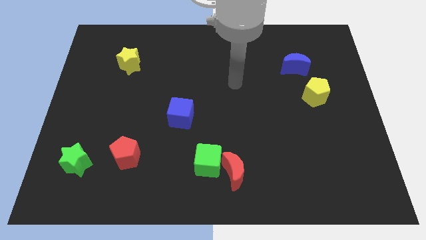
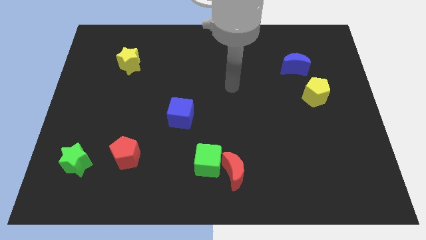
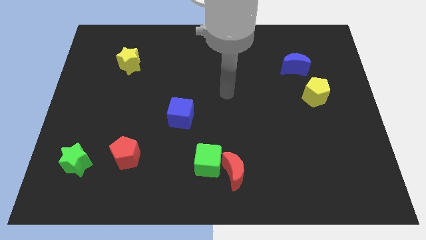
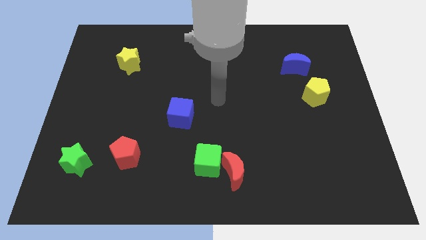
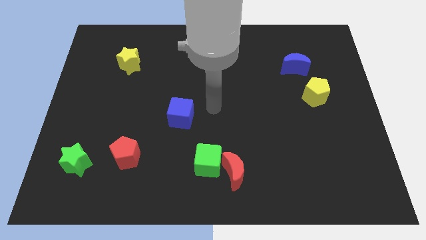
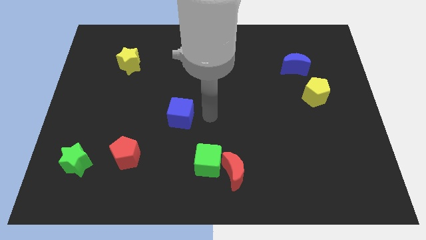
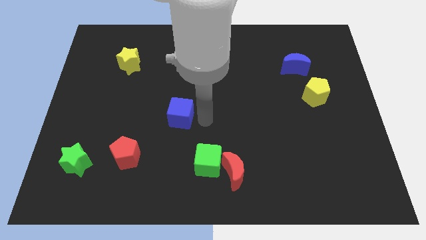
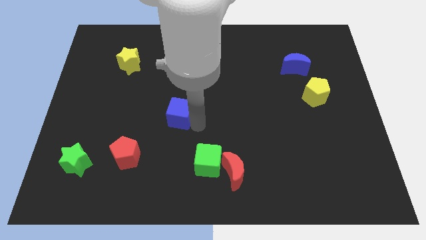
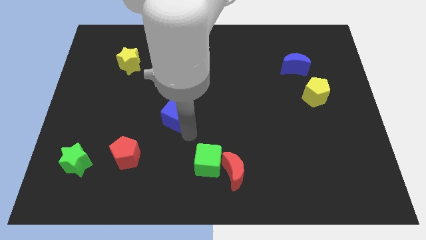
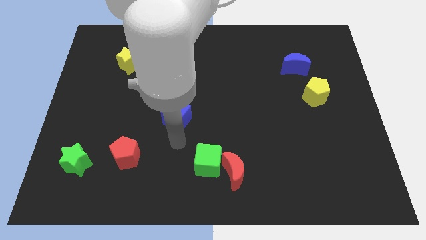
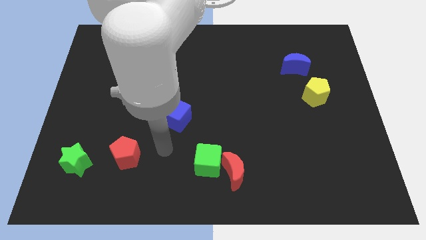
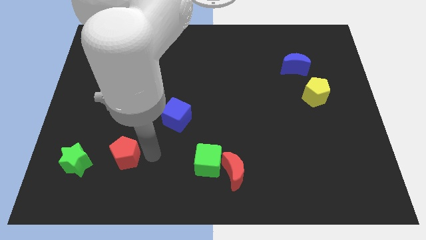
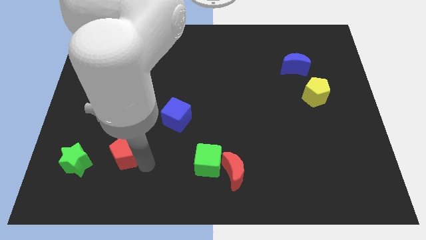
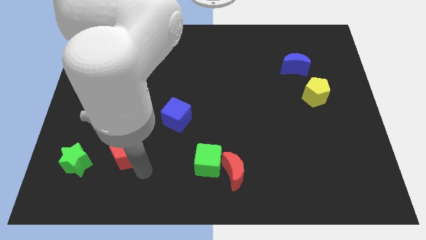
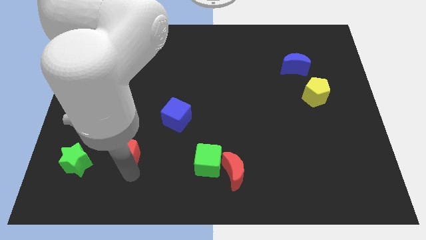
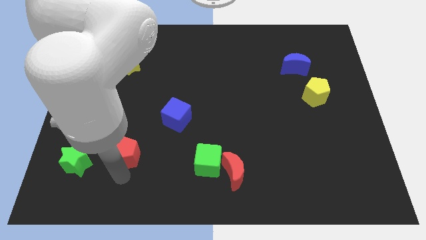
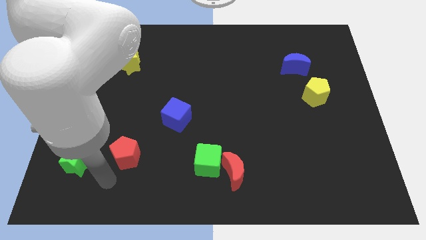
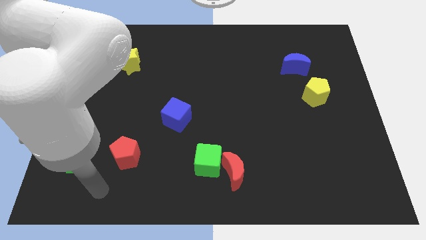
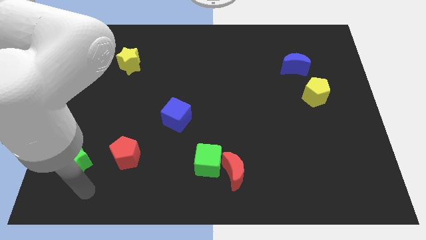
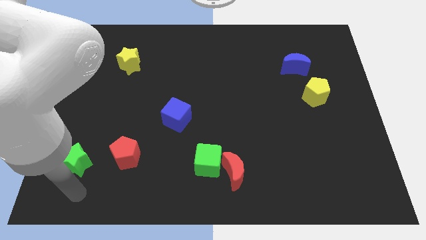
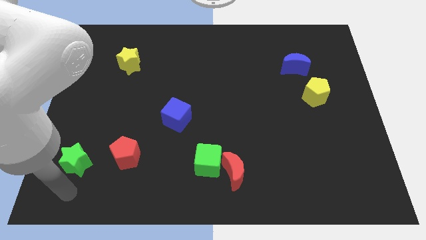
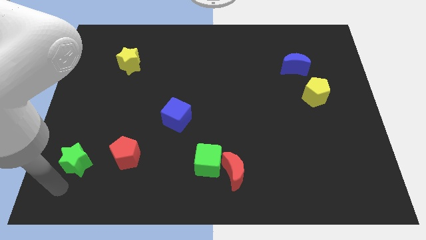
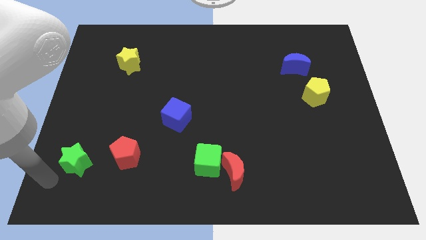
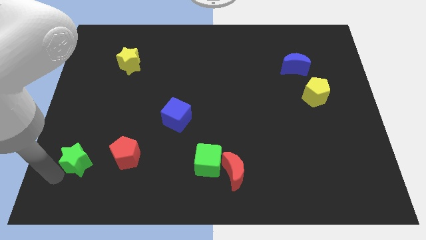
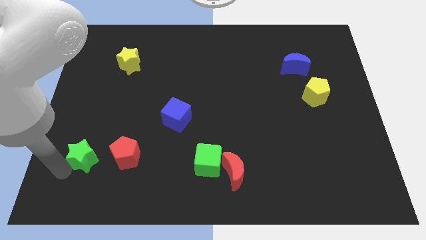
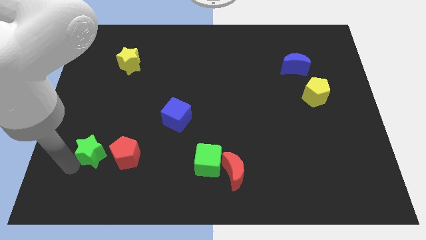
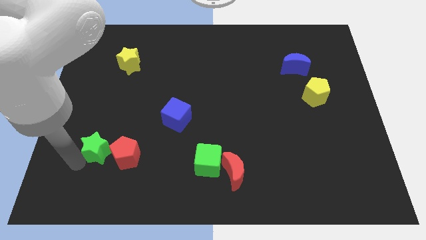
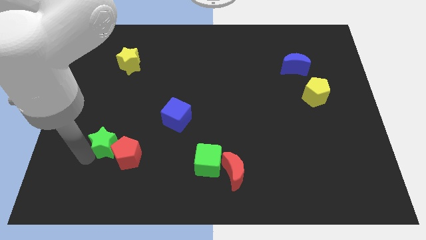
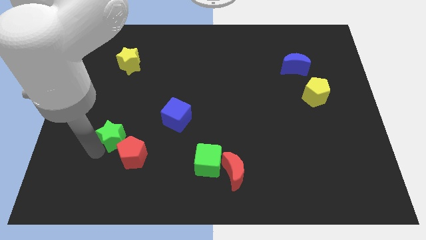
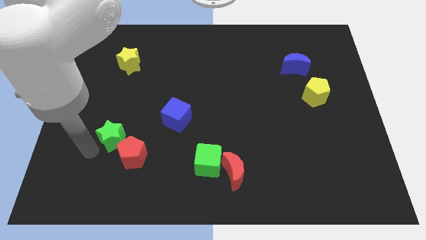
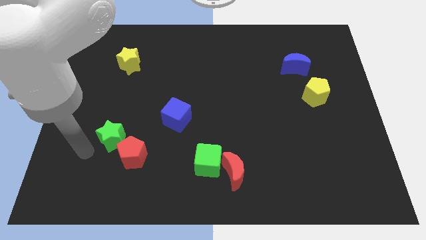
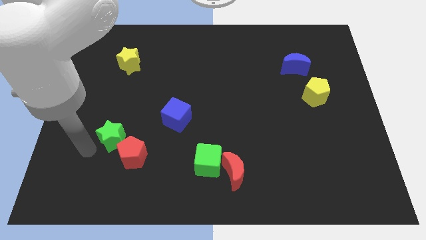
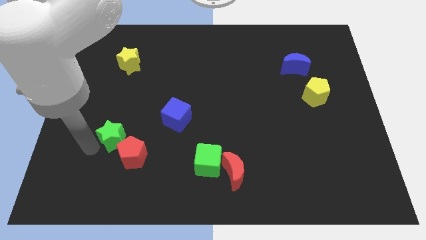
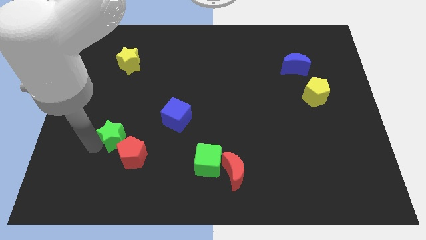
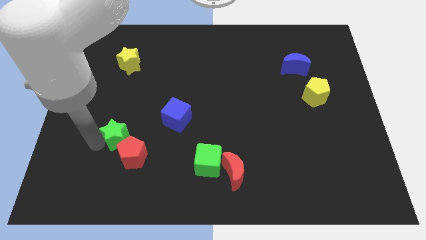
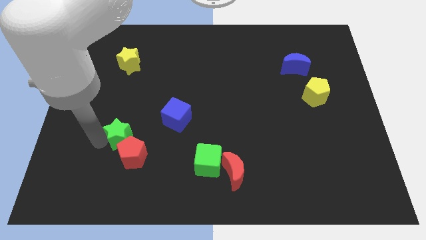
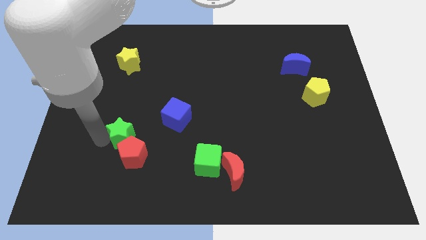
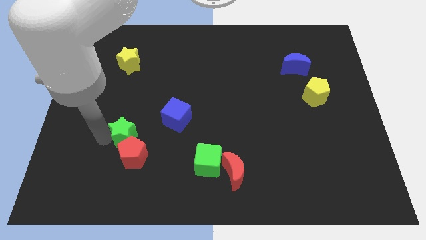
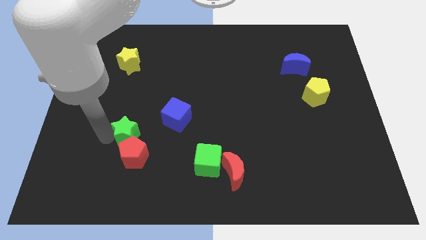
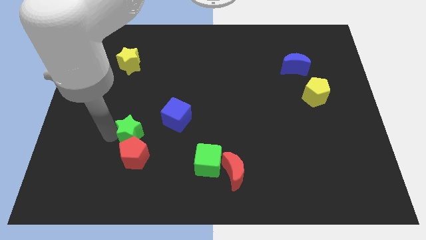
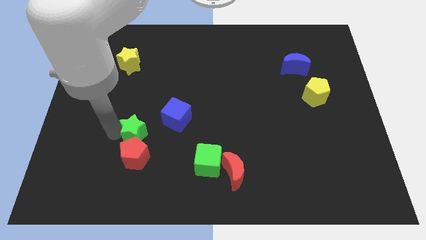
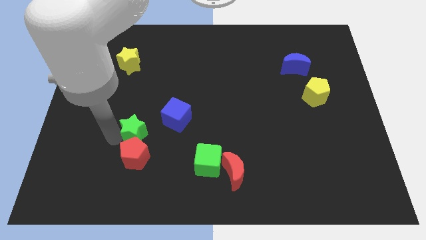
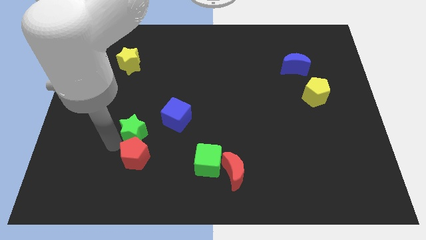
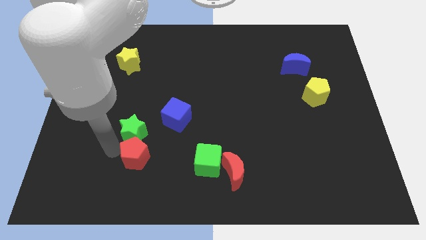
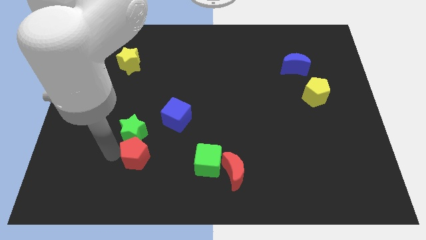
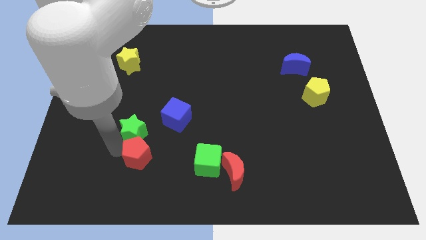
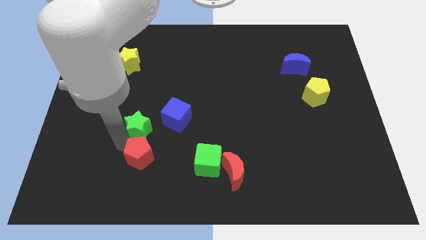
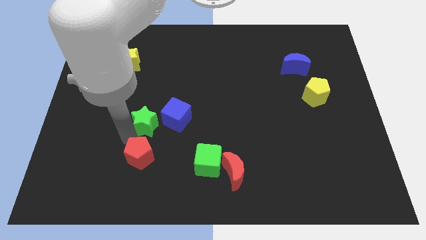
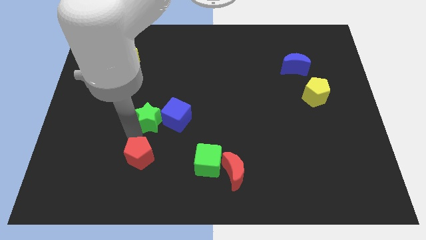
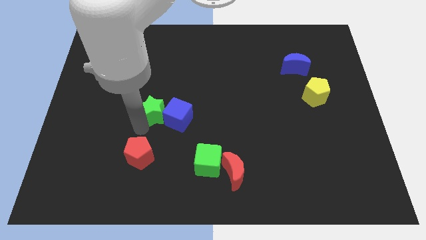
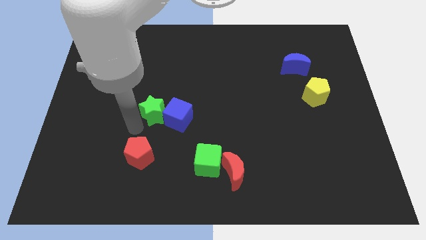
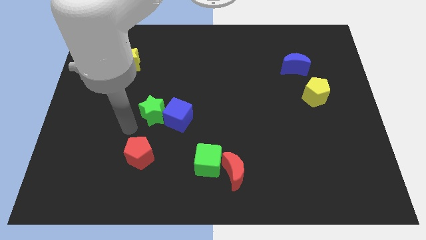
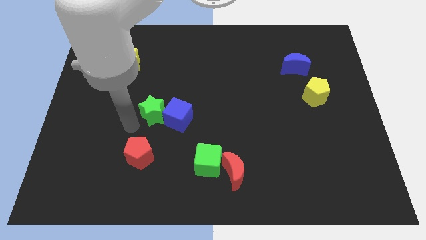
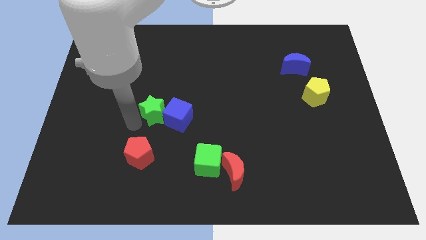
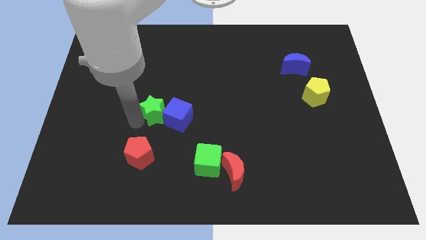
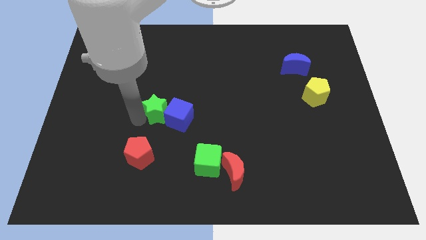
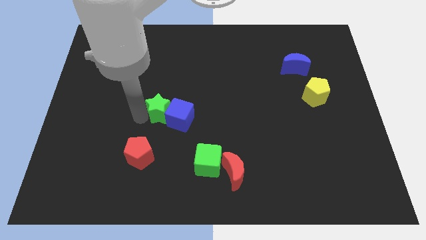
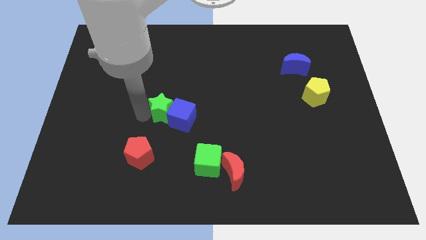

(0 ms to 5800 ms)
push the green star to the middle of the board

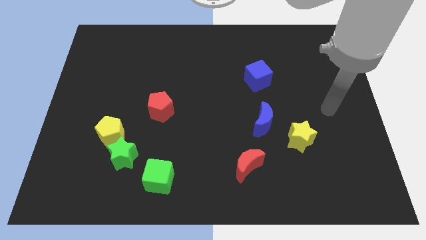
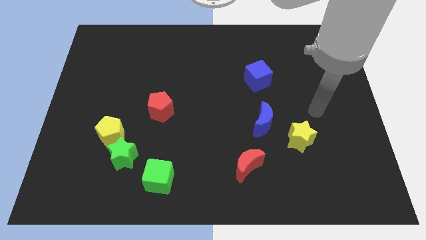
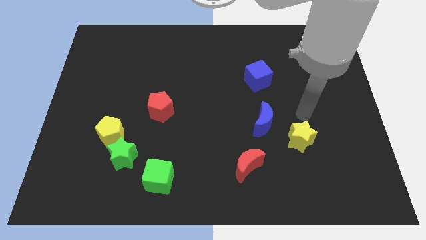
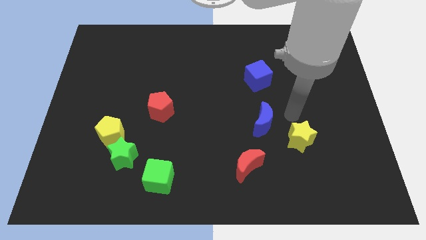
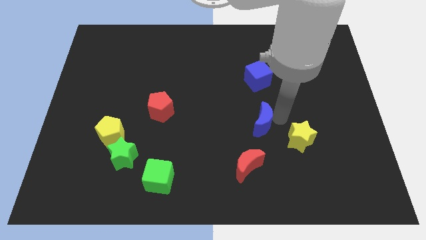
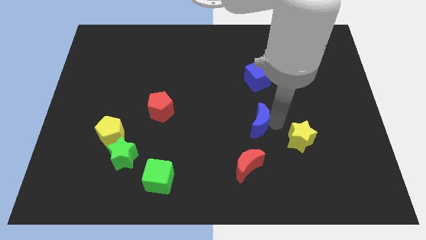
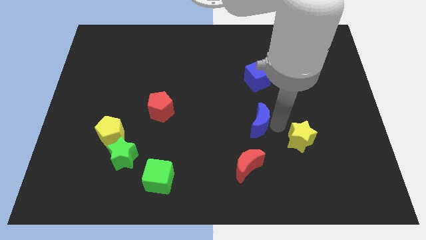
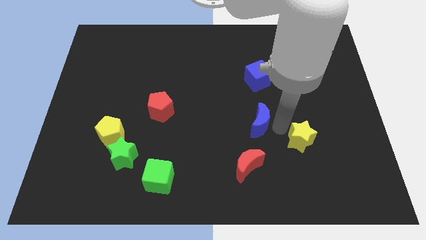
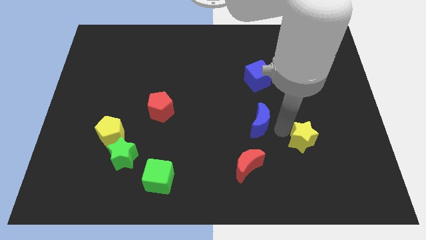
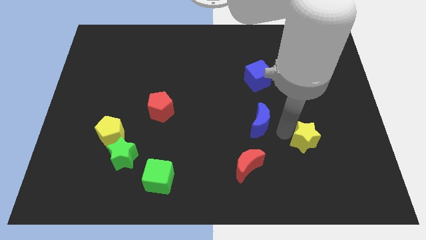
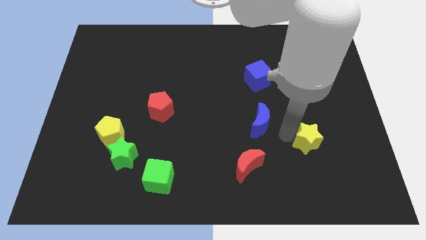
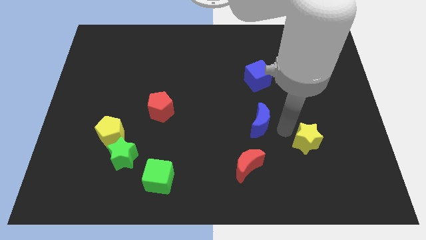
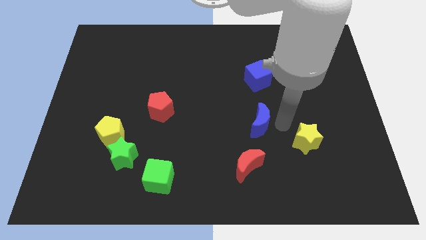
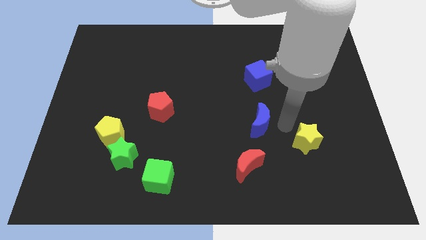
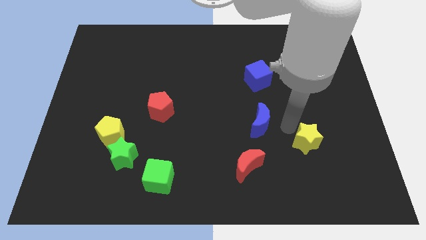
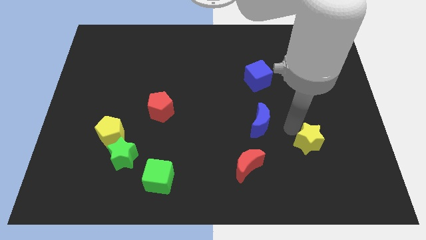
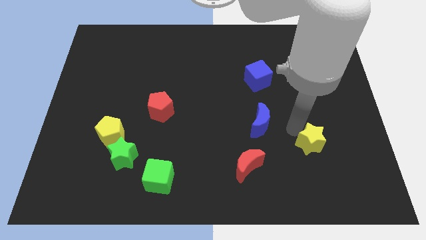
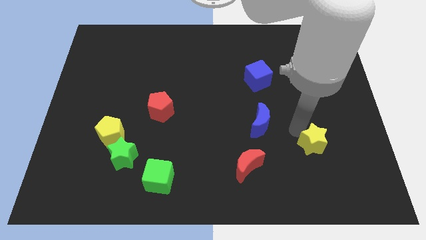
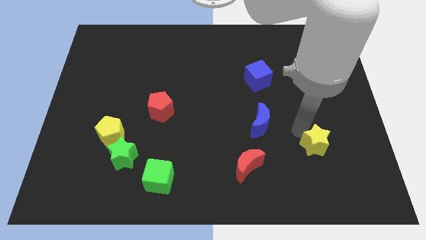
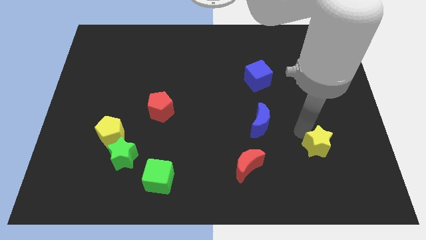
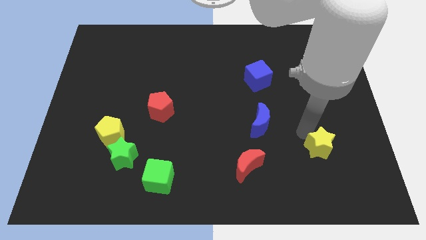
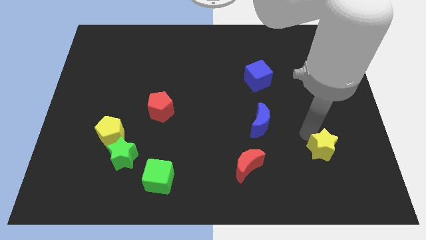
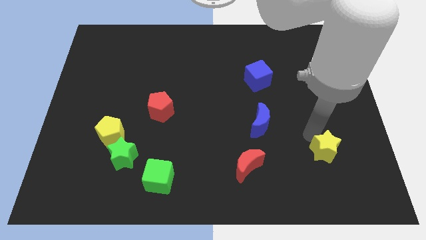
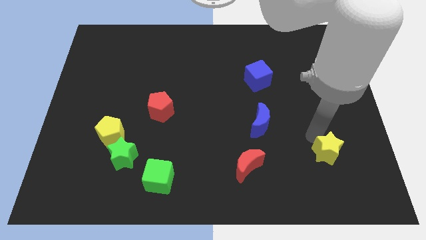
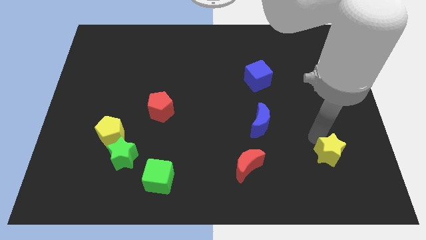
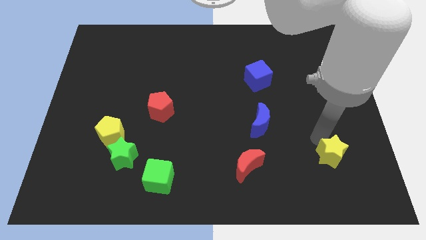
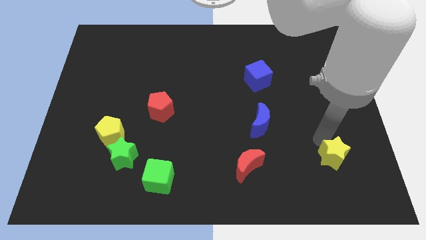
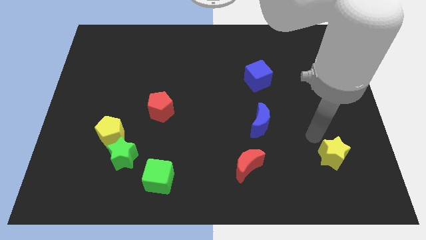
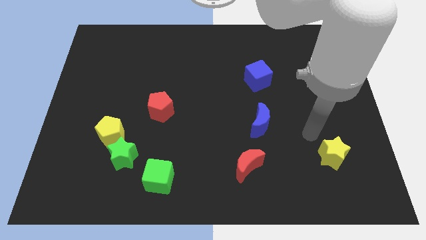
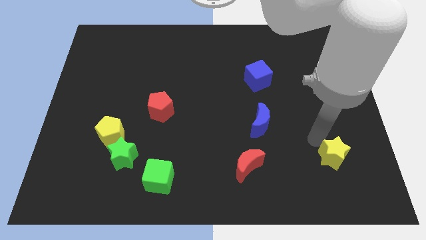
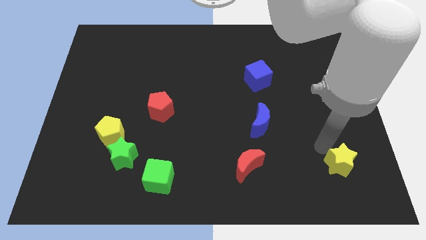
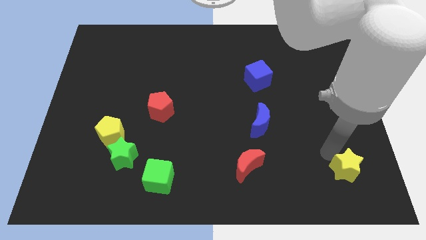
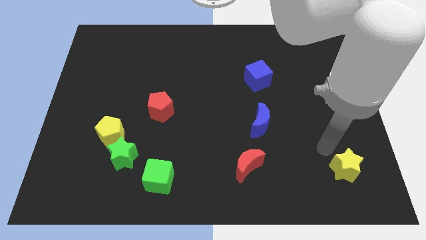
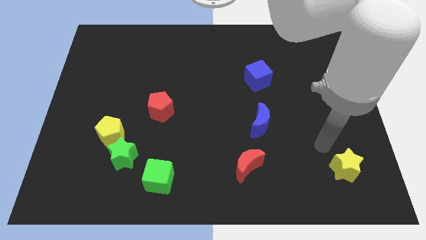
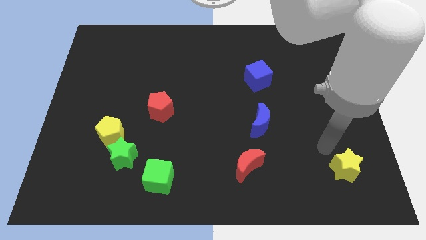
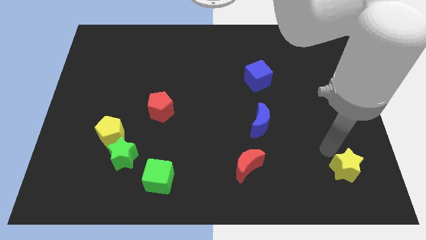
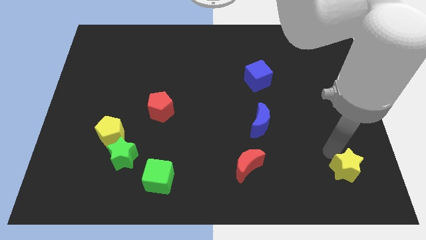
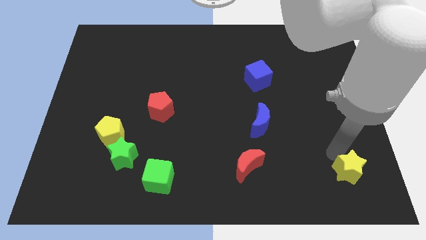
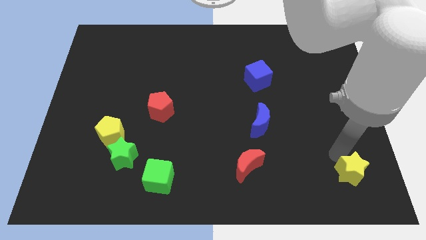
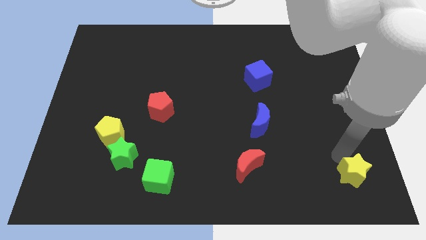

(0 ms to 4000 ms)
put the yellow star to the bottom right of the board
